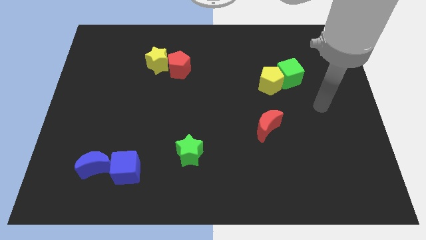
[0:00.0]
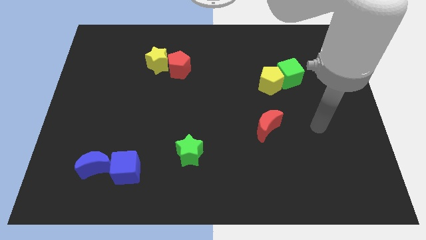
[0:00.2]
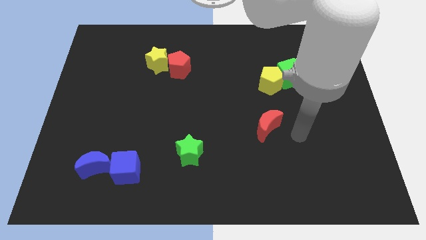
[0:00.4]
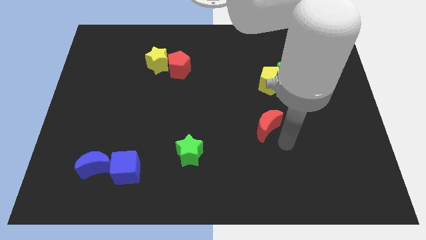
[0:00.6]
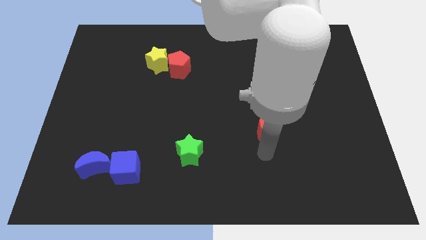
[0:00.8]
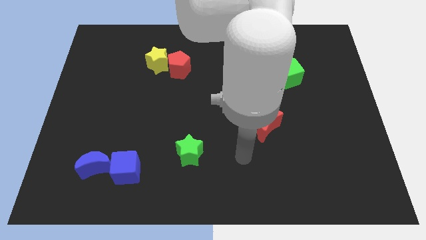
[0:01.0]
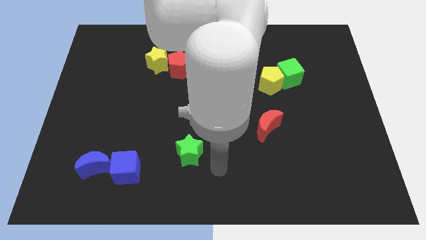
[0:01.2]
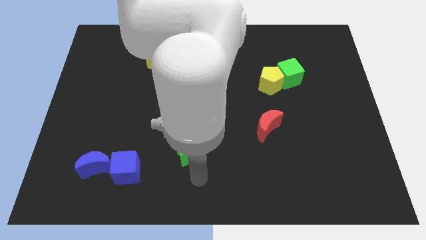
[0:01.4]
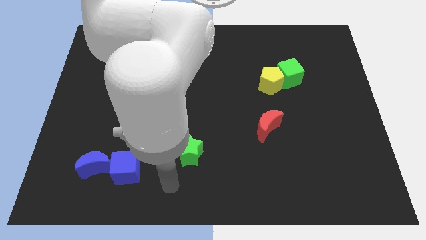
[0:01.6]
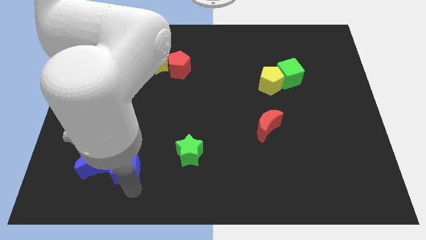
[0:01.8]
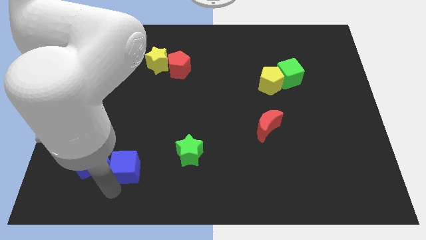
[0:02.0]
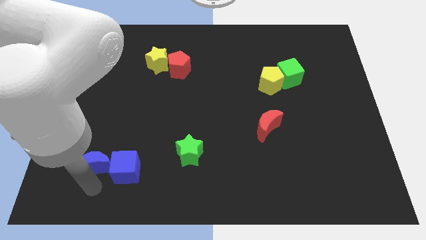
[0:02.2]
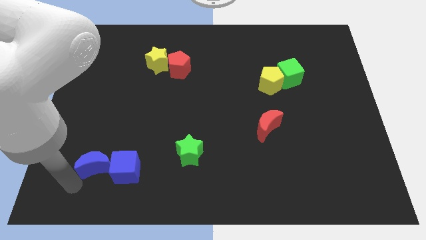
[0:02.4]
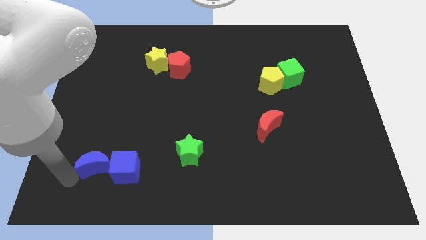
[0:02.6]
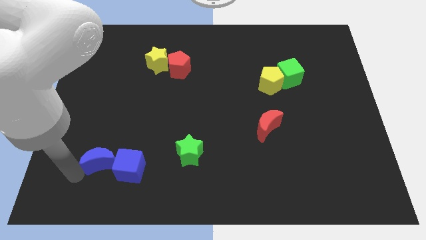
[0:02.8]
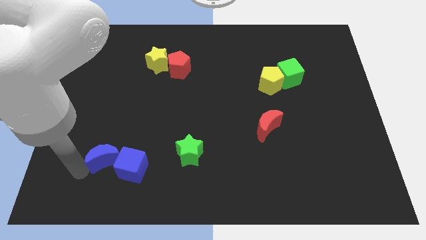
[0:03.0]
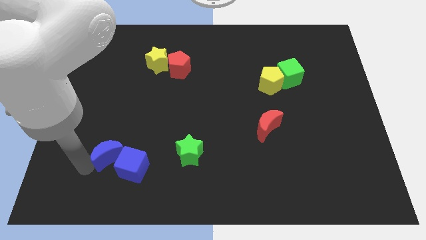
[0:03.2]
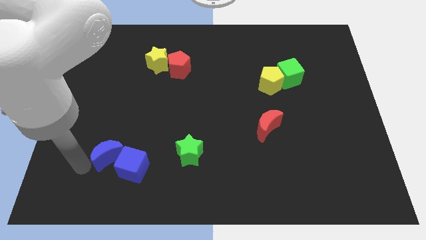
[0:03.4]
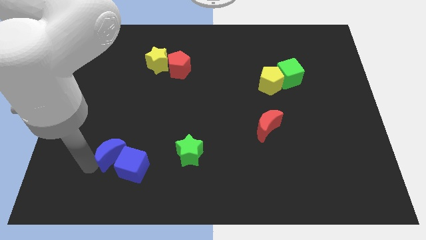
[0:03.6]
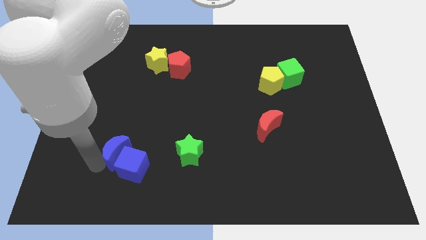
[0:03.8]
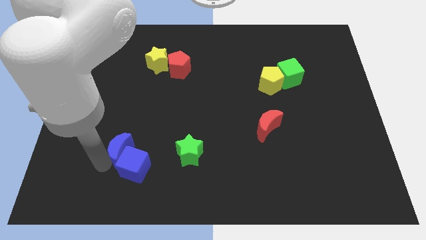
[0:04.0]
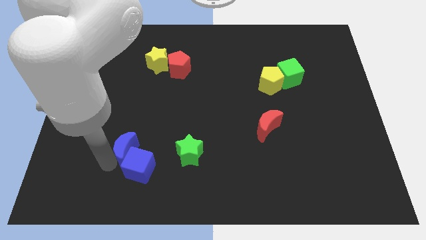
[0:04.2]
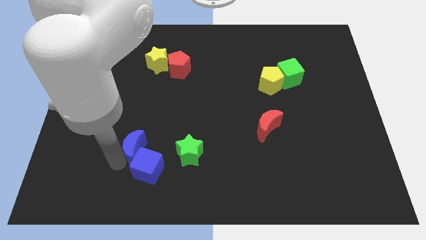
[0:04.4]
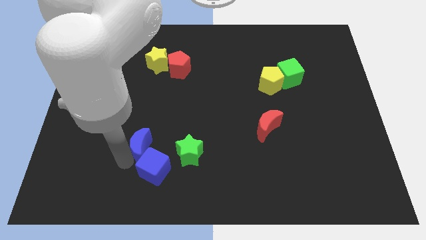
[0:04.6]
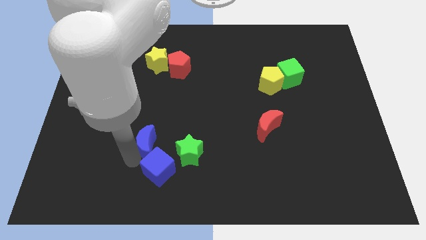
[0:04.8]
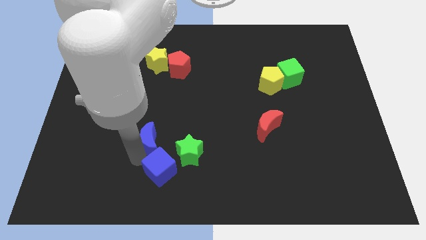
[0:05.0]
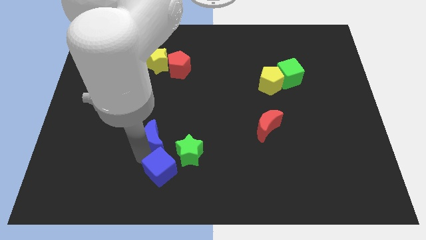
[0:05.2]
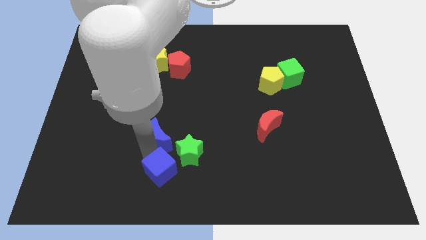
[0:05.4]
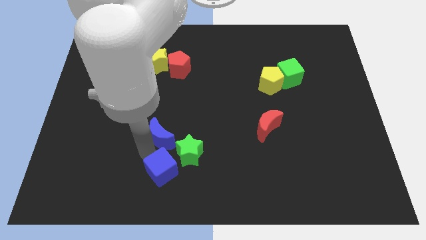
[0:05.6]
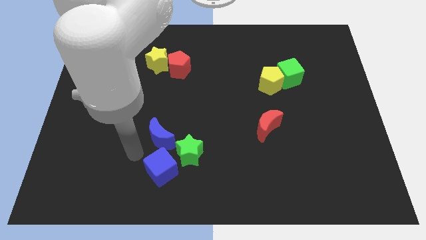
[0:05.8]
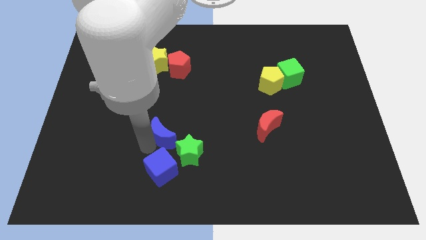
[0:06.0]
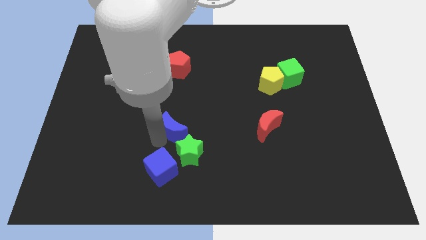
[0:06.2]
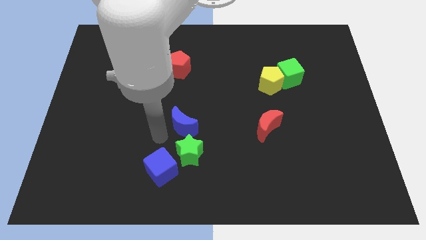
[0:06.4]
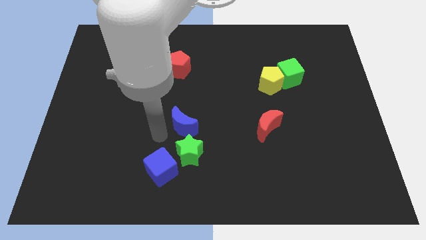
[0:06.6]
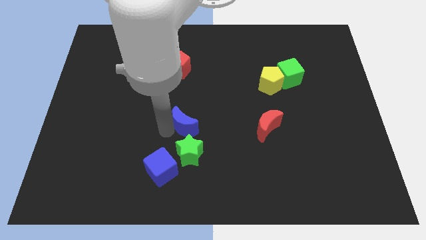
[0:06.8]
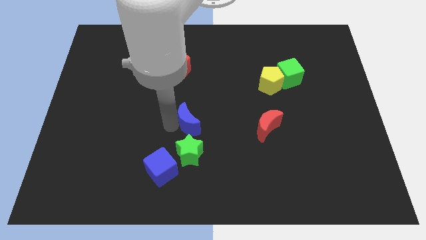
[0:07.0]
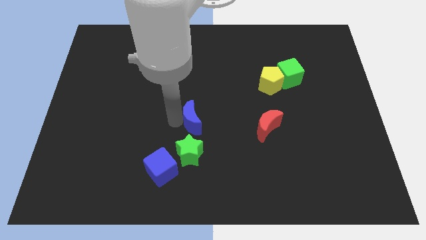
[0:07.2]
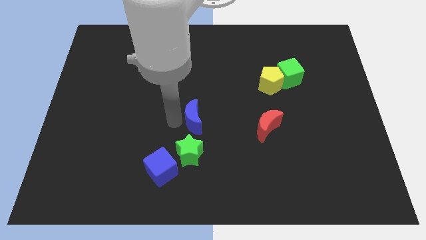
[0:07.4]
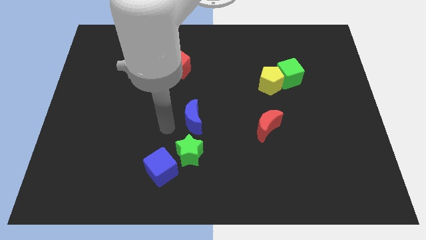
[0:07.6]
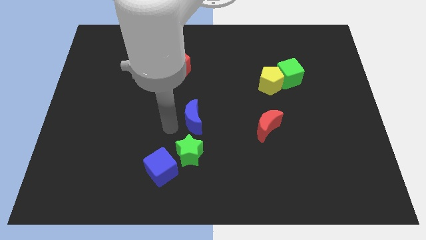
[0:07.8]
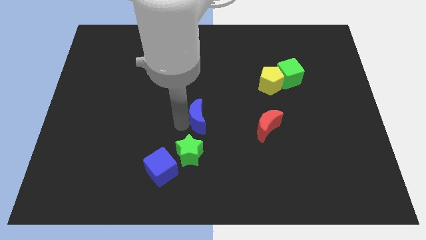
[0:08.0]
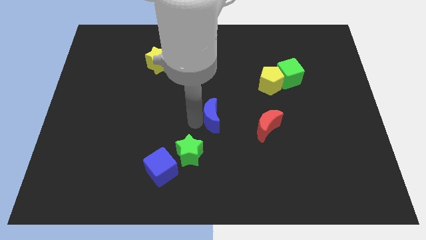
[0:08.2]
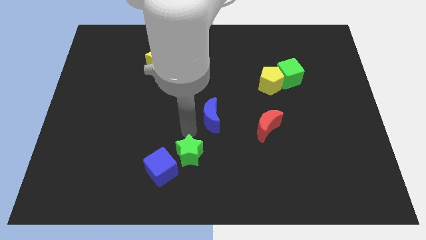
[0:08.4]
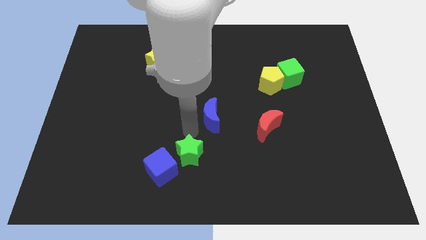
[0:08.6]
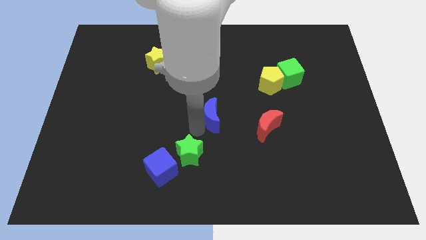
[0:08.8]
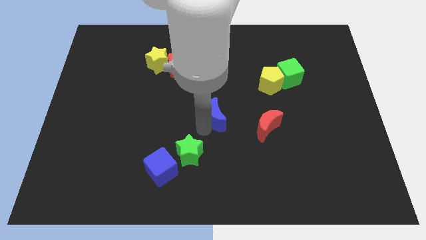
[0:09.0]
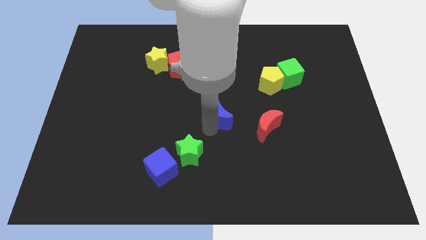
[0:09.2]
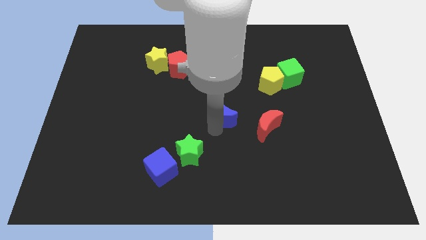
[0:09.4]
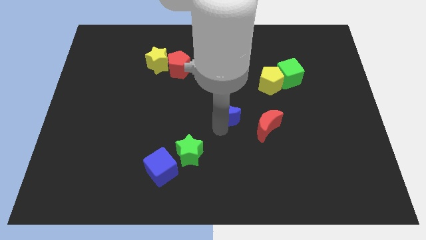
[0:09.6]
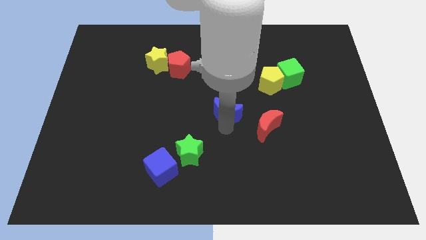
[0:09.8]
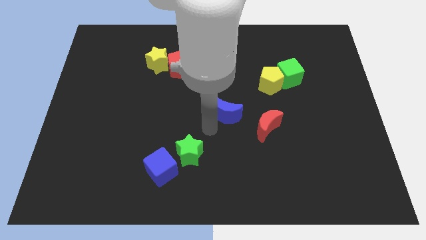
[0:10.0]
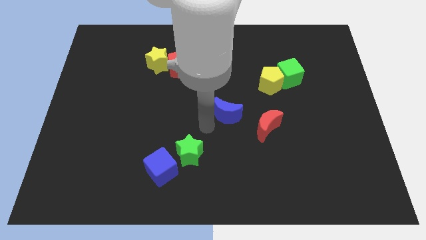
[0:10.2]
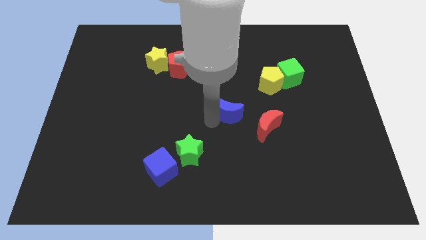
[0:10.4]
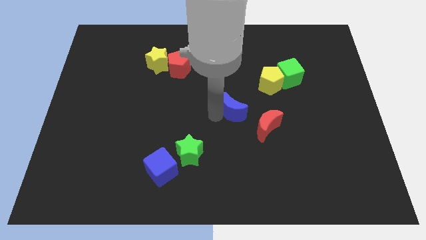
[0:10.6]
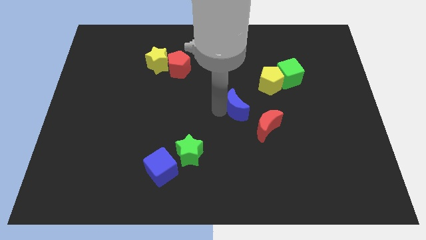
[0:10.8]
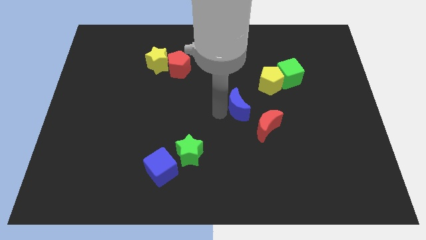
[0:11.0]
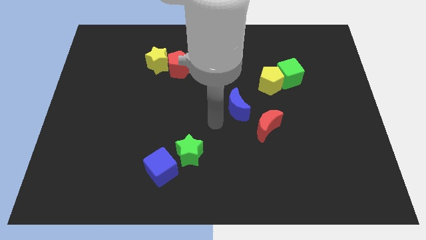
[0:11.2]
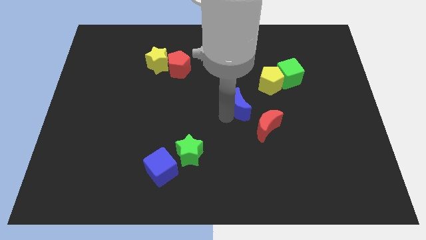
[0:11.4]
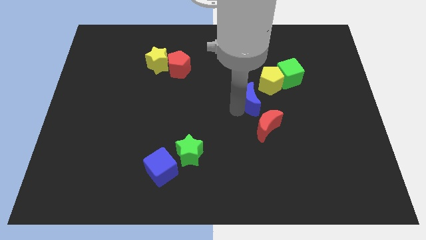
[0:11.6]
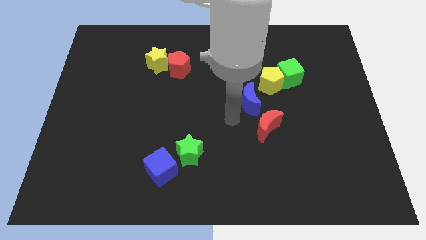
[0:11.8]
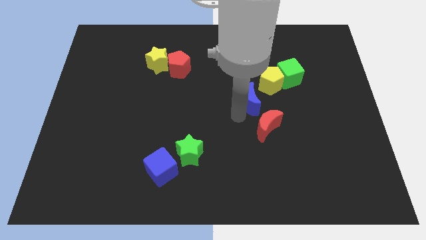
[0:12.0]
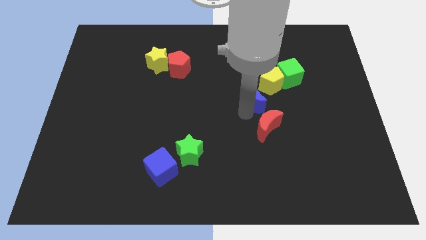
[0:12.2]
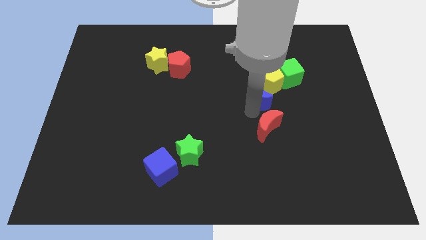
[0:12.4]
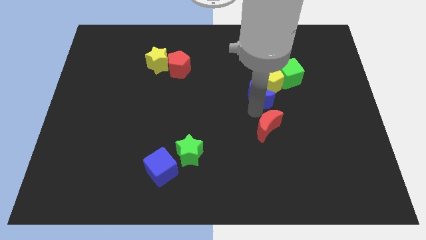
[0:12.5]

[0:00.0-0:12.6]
put the blue moon towards the yellow pentagon

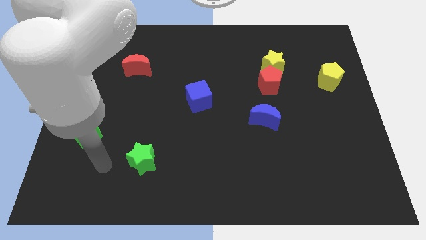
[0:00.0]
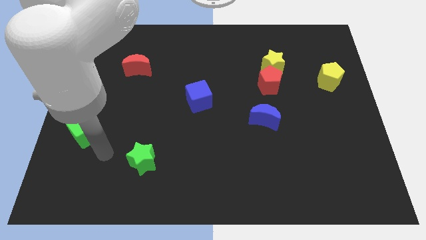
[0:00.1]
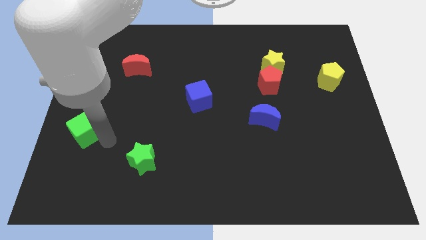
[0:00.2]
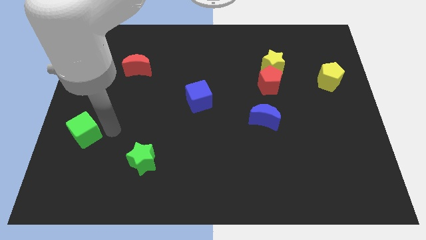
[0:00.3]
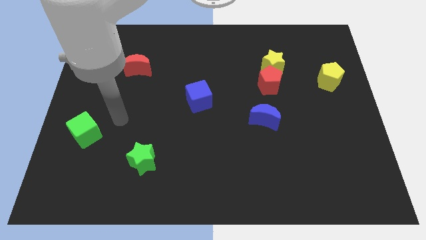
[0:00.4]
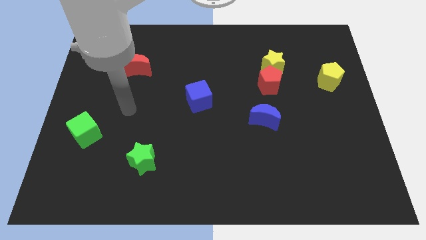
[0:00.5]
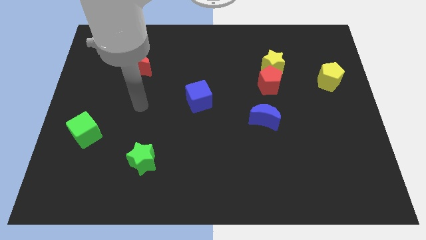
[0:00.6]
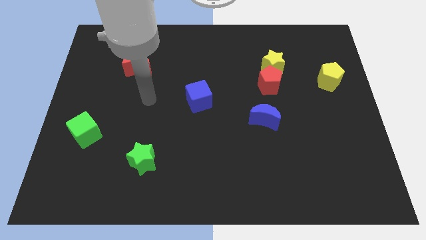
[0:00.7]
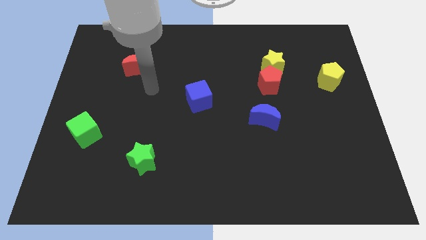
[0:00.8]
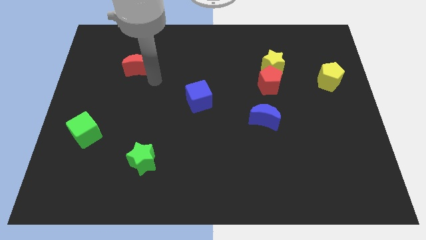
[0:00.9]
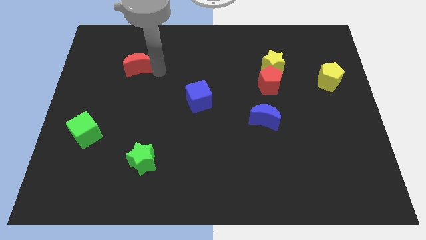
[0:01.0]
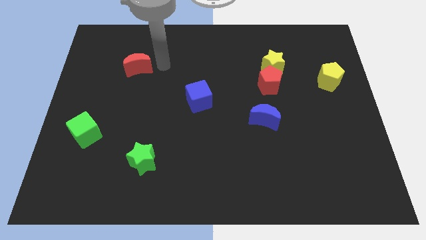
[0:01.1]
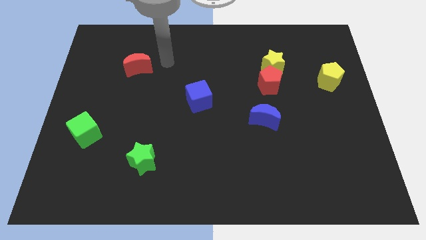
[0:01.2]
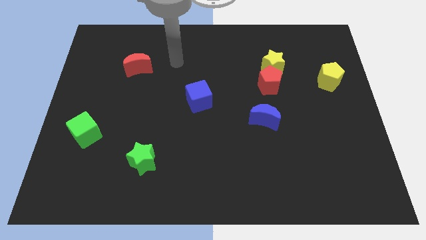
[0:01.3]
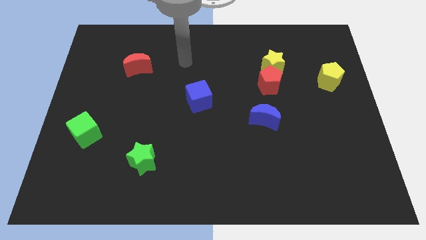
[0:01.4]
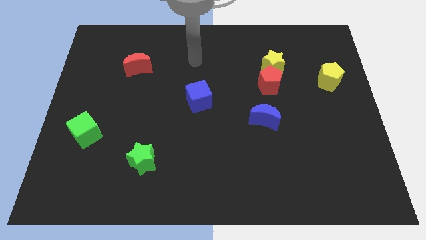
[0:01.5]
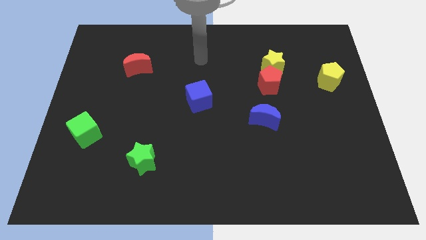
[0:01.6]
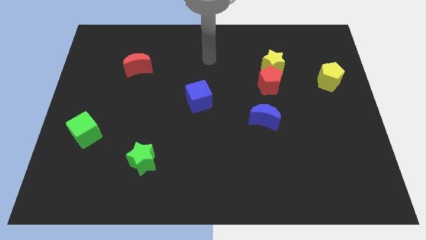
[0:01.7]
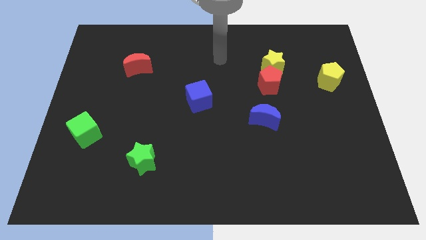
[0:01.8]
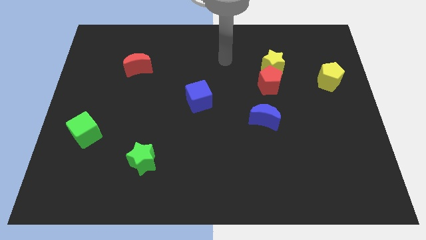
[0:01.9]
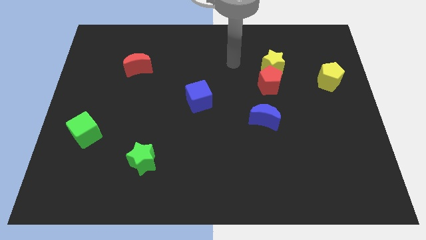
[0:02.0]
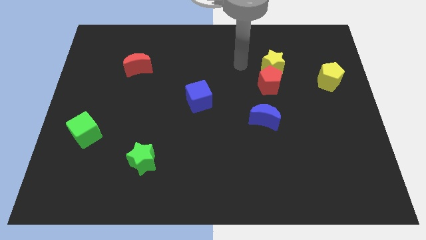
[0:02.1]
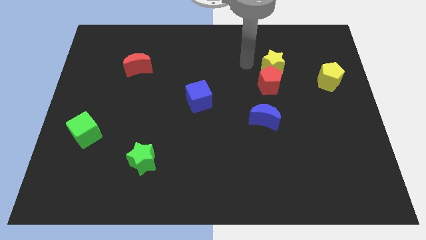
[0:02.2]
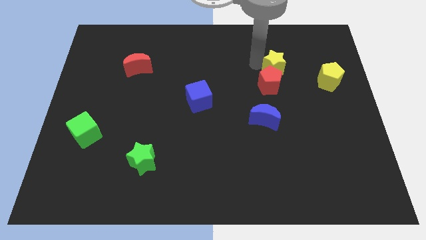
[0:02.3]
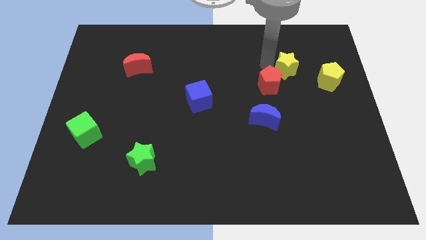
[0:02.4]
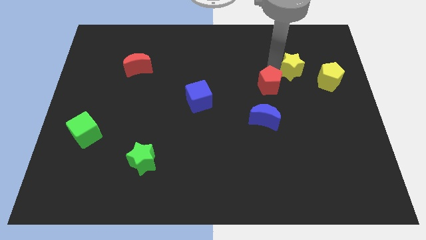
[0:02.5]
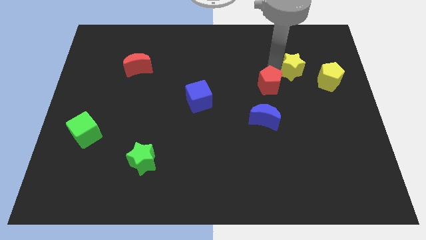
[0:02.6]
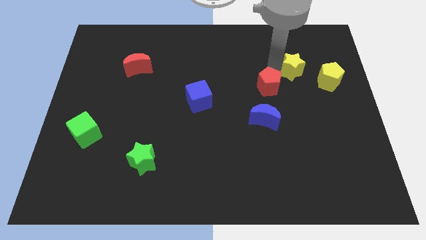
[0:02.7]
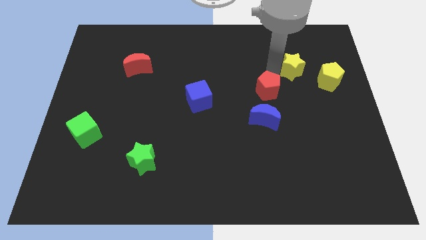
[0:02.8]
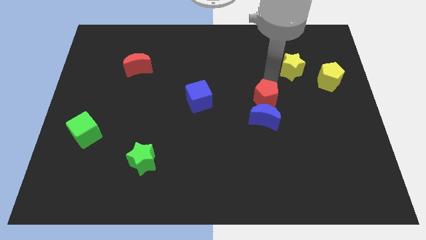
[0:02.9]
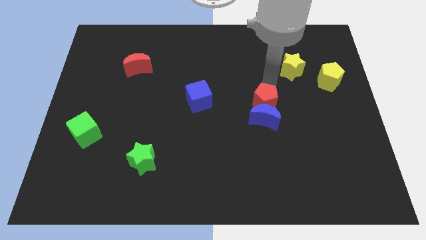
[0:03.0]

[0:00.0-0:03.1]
slide the red pentagon towards the blue moon
